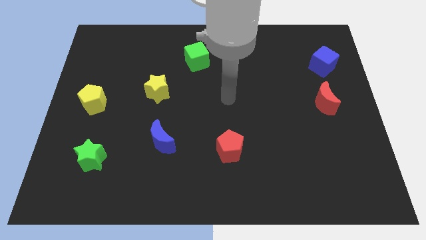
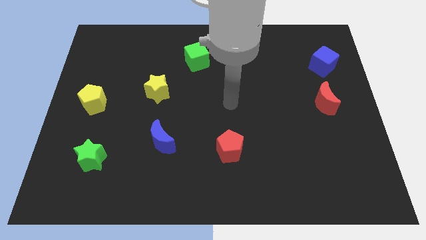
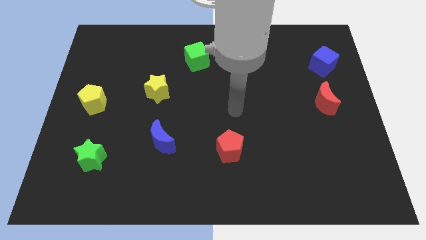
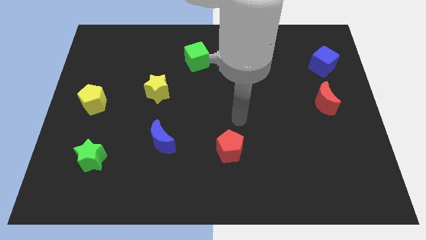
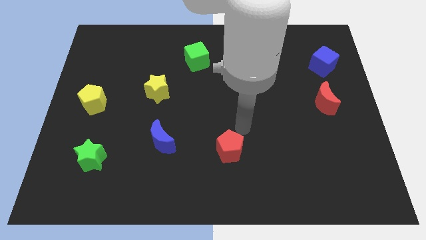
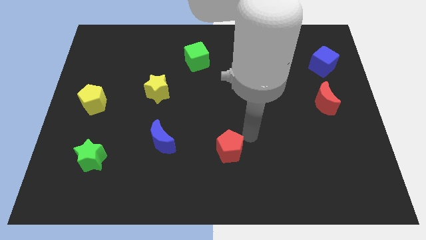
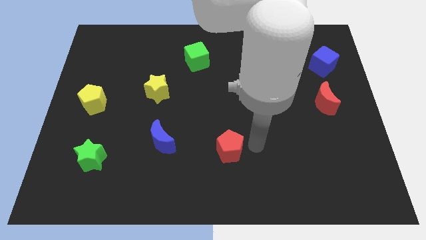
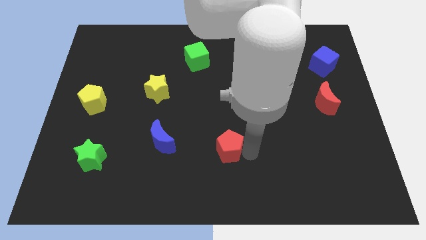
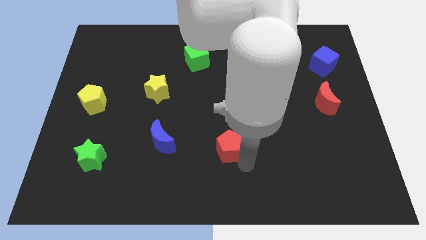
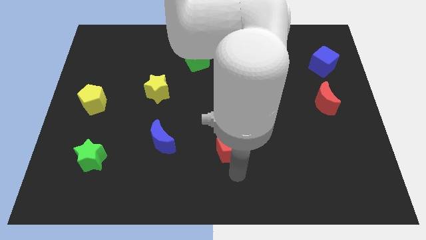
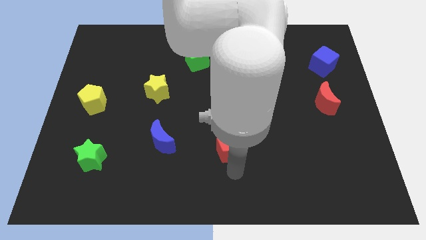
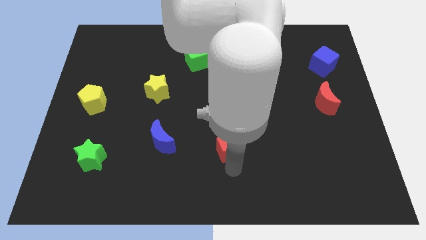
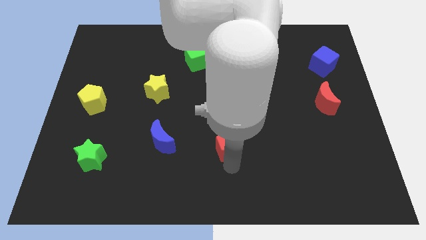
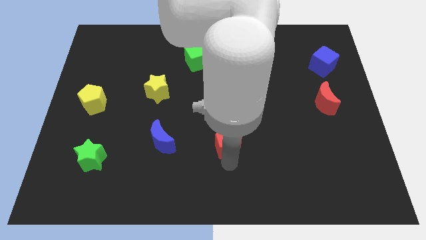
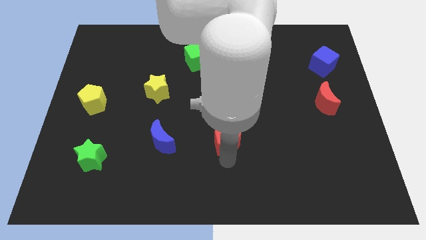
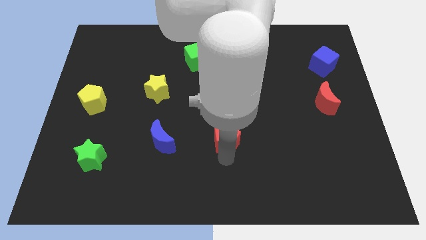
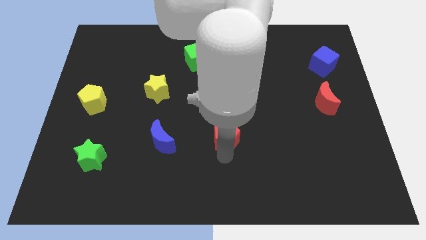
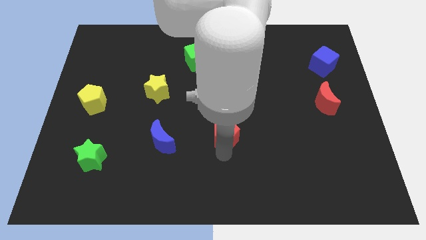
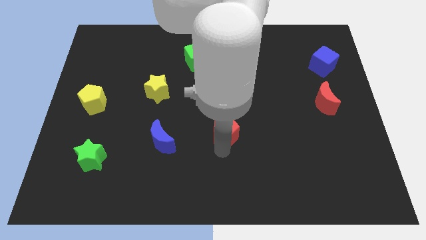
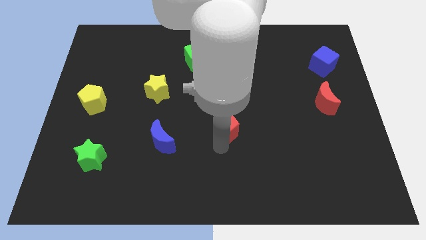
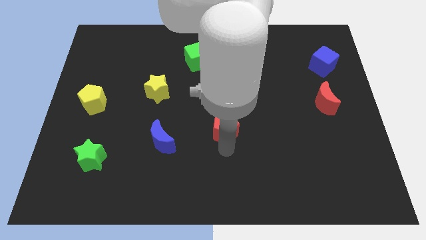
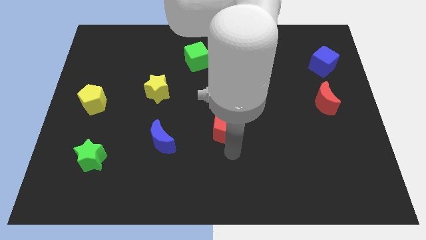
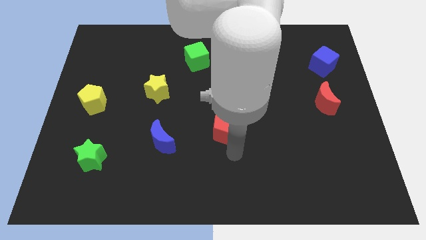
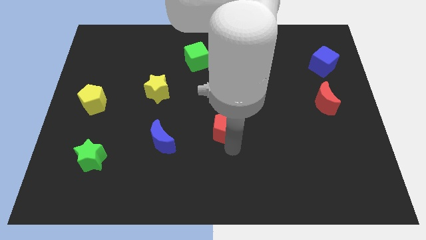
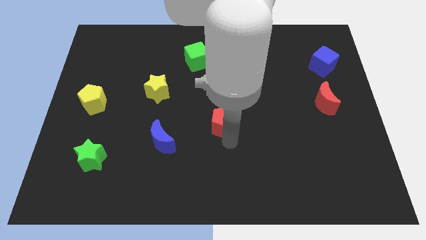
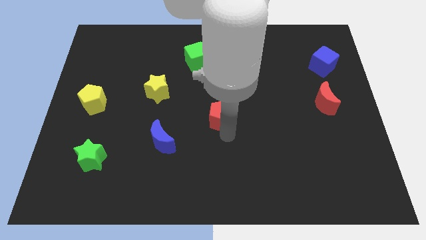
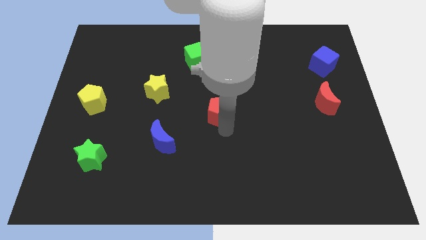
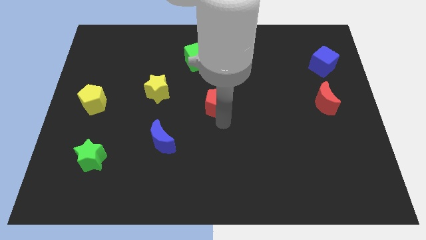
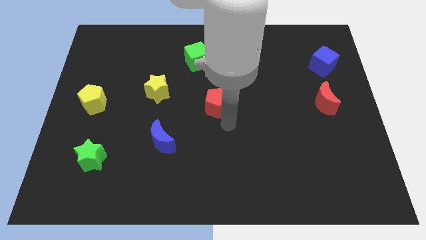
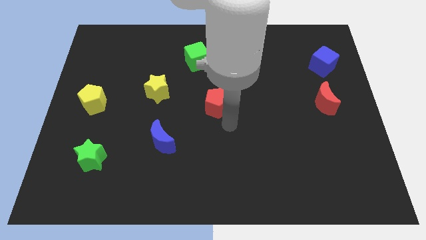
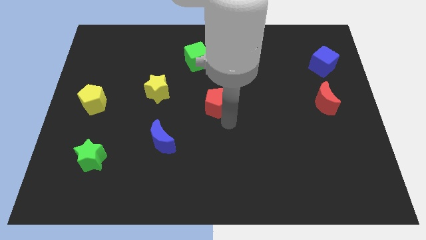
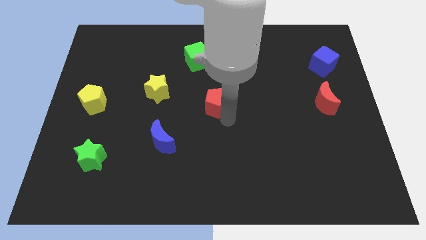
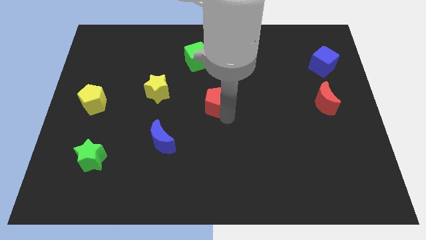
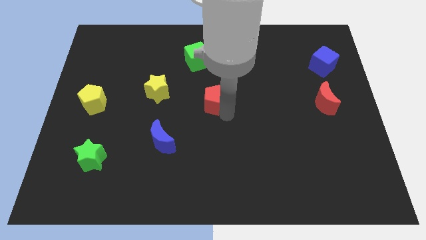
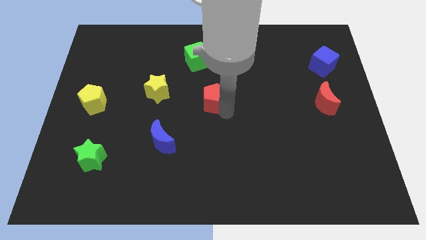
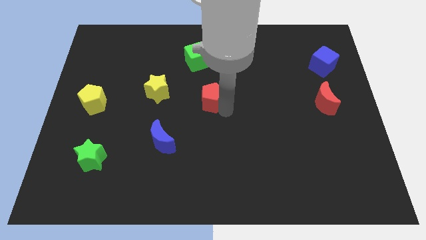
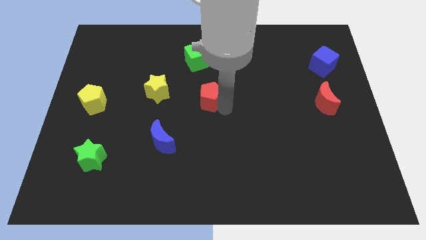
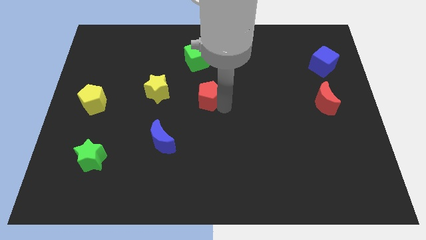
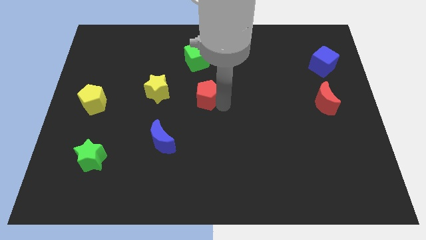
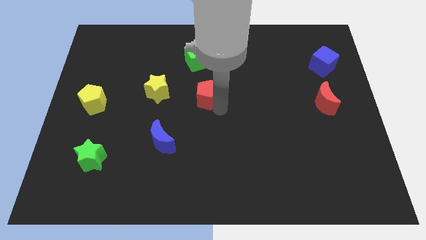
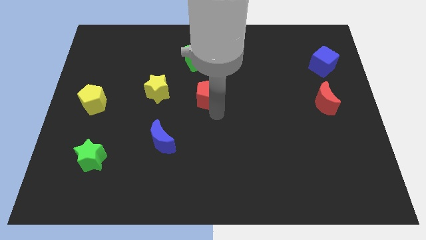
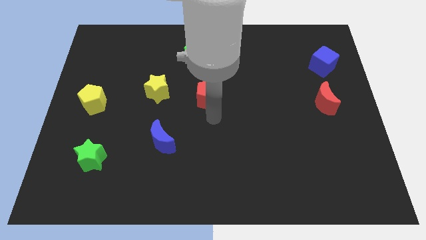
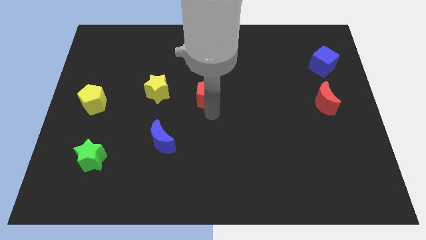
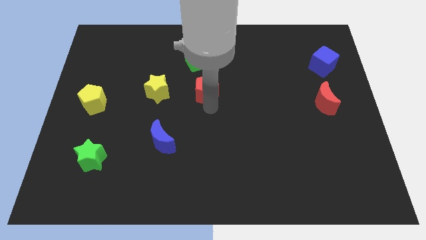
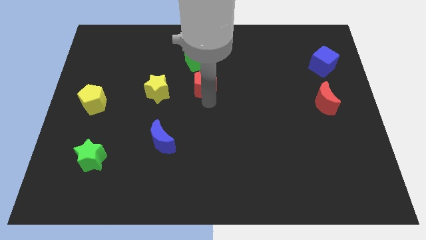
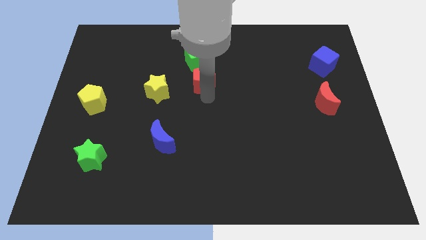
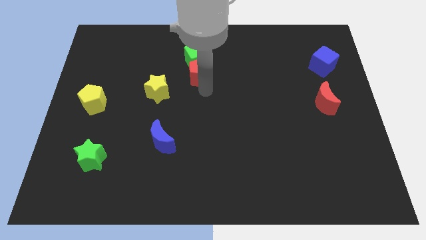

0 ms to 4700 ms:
move the red pentagon close to the green cube

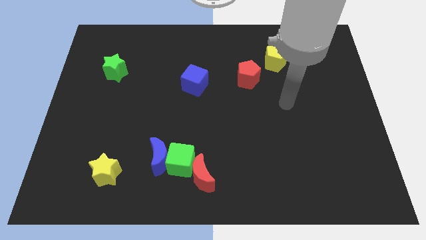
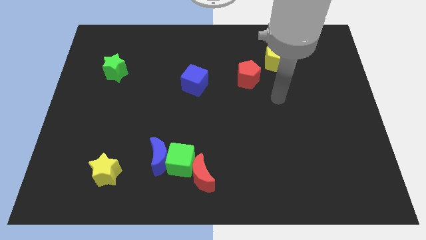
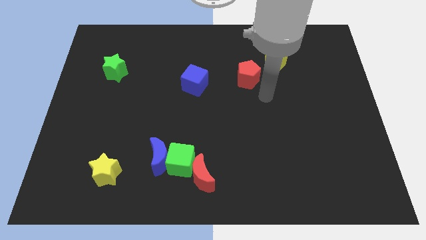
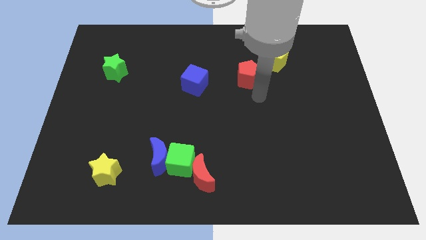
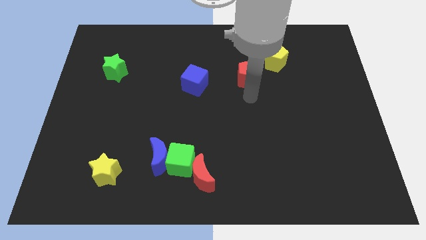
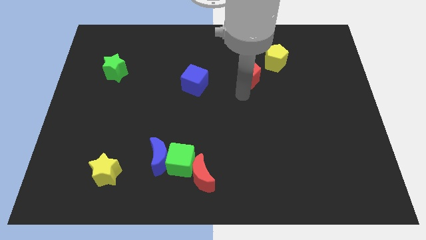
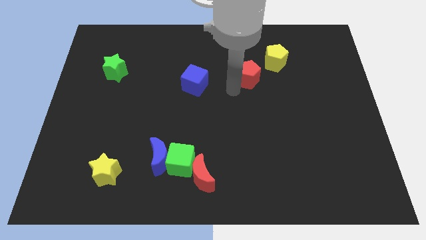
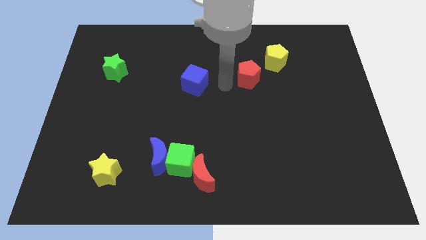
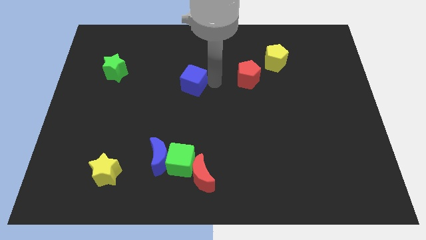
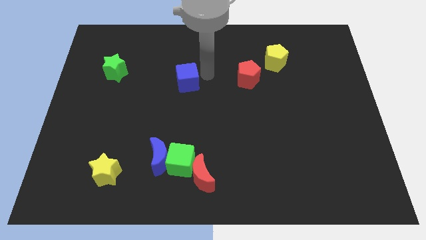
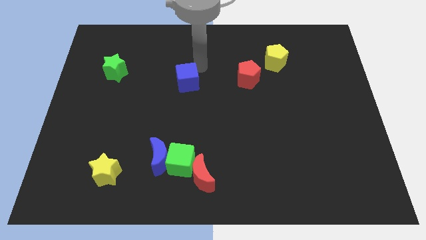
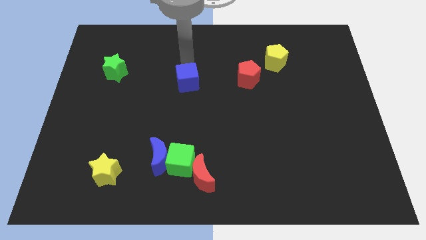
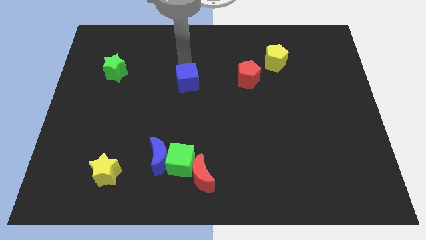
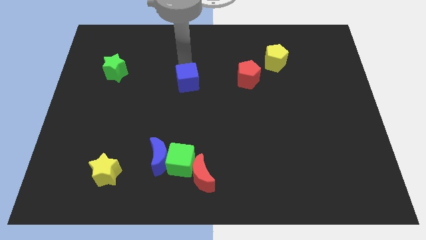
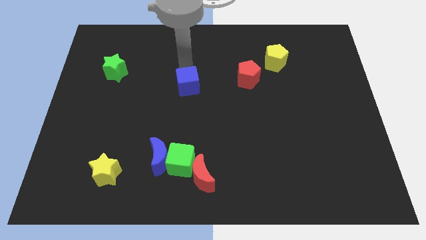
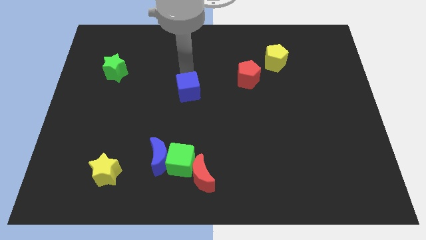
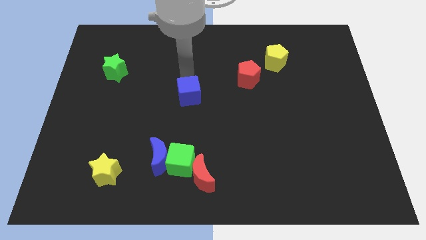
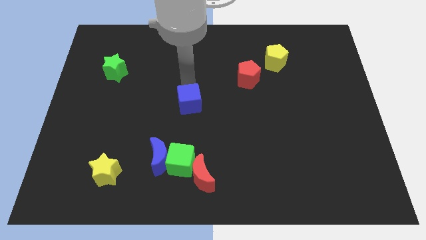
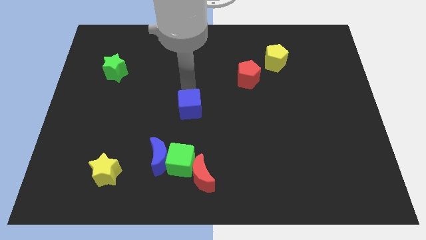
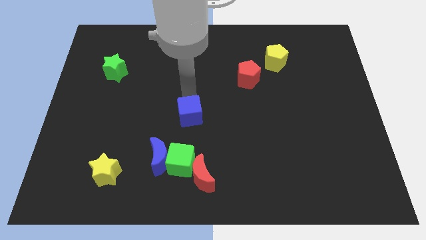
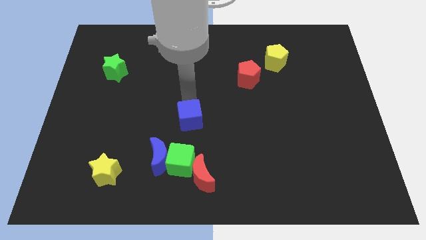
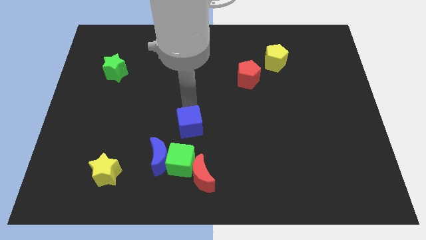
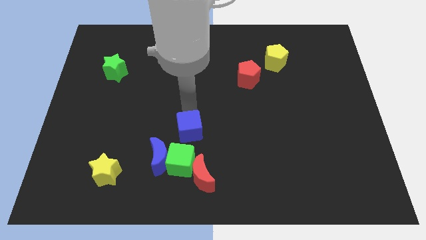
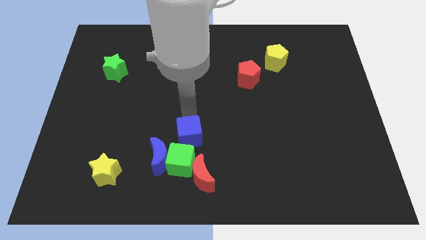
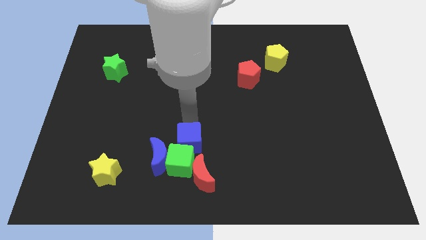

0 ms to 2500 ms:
put the blue cube close to the green cube

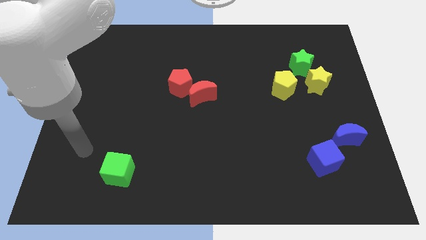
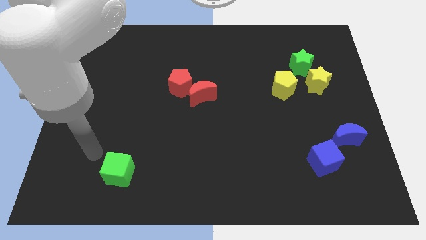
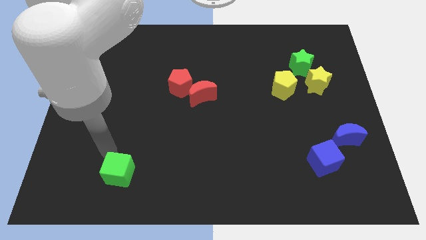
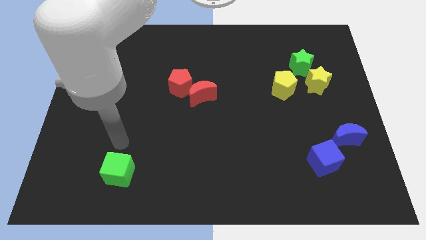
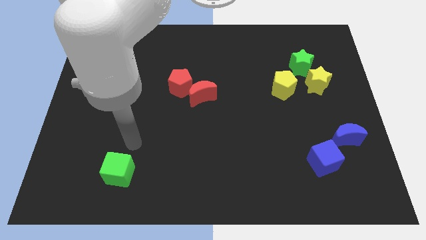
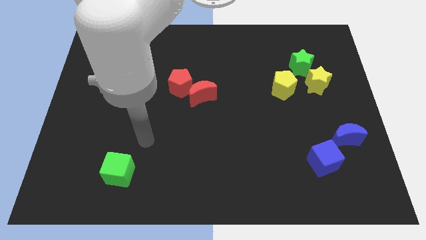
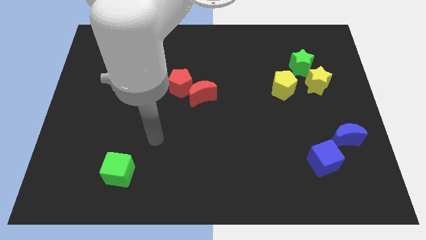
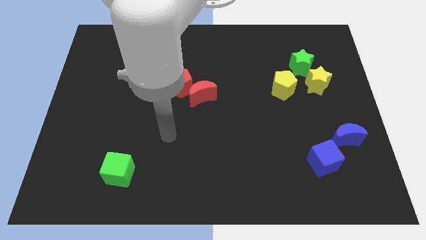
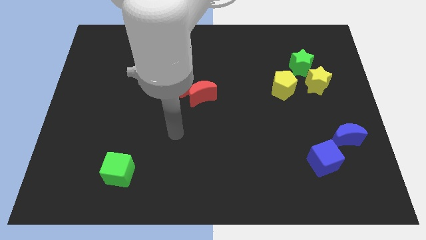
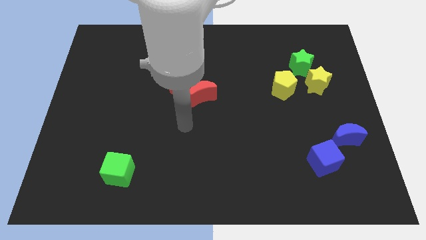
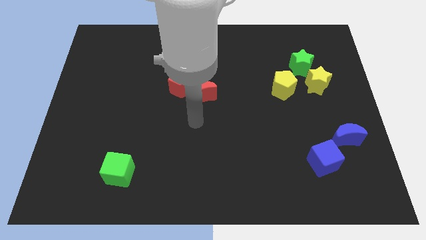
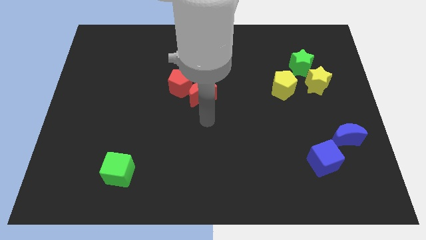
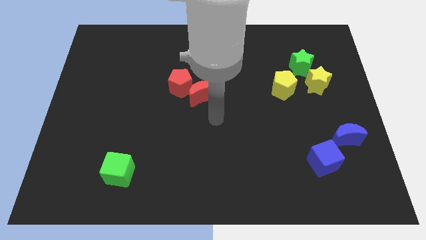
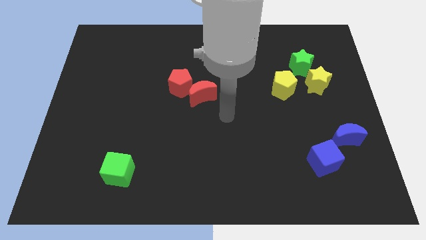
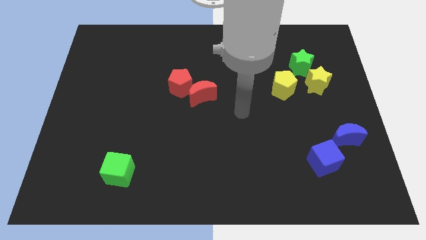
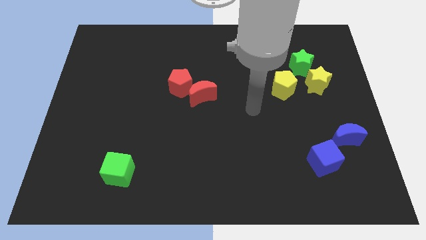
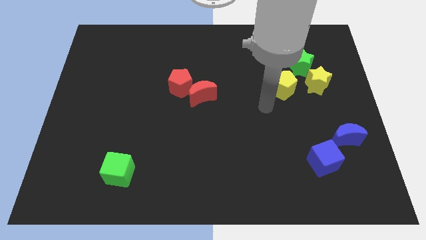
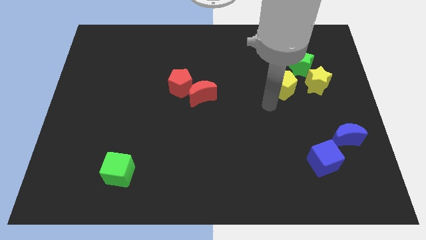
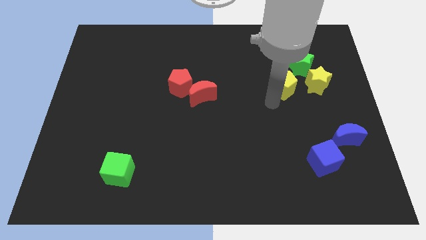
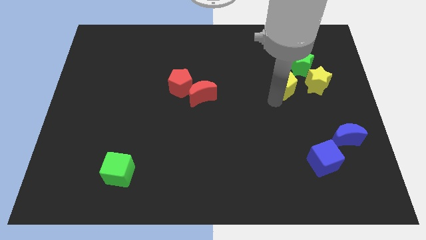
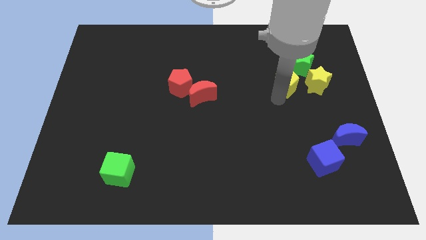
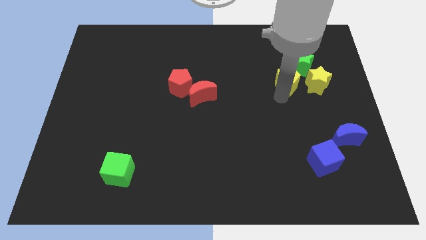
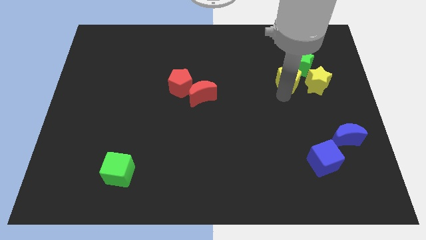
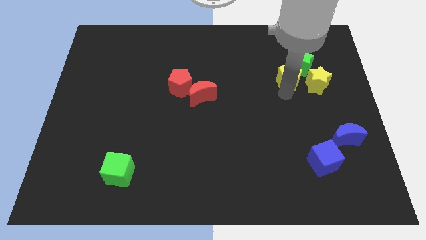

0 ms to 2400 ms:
put the yellow pentagon close to the green star
